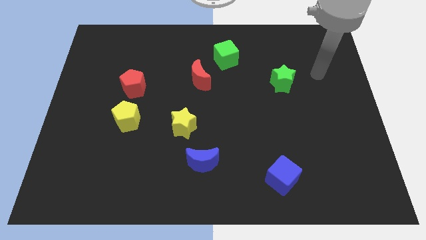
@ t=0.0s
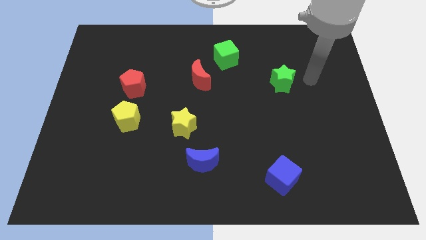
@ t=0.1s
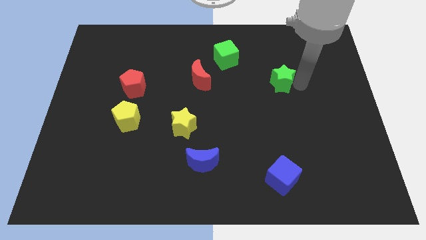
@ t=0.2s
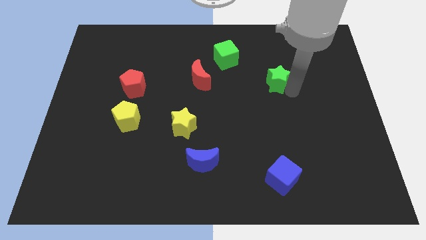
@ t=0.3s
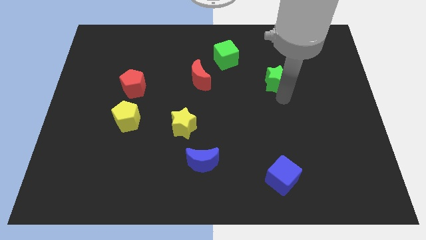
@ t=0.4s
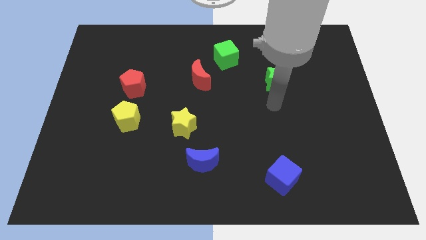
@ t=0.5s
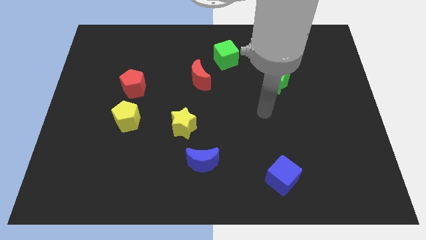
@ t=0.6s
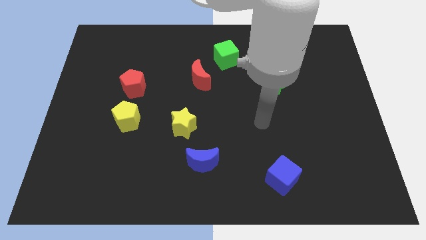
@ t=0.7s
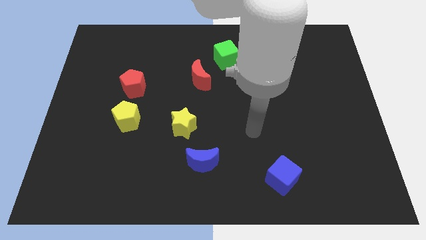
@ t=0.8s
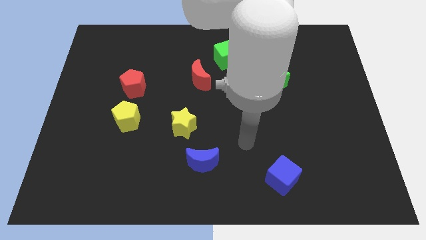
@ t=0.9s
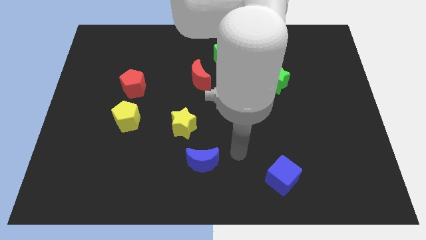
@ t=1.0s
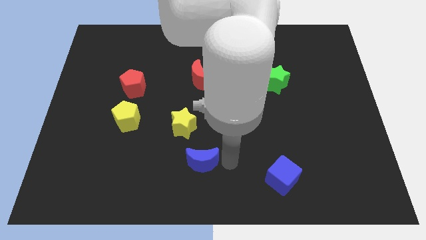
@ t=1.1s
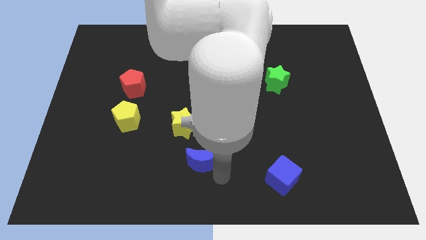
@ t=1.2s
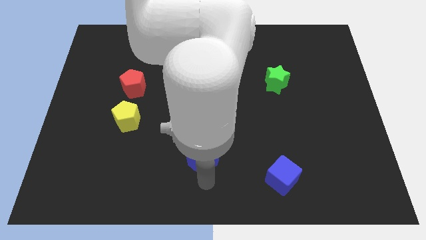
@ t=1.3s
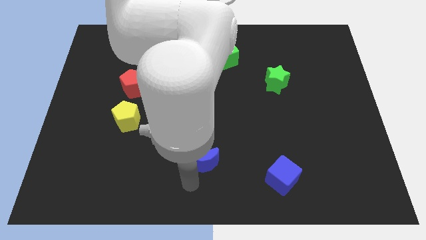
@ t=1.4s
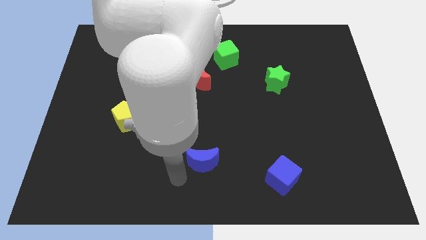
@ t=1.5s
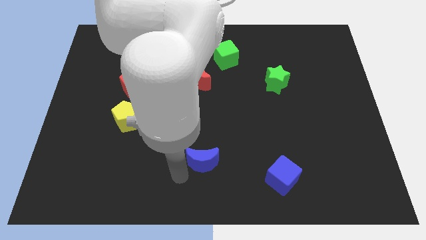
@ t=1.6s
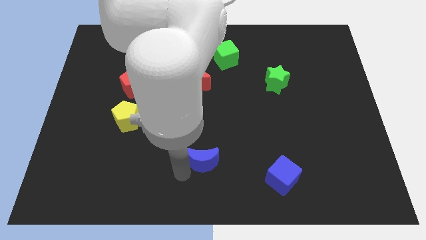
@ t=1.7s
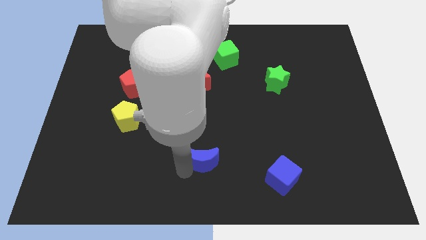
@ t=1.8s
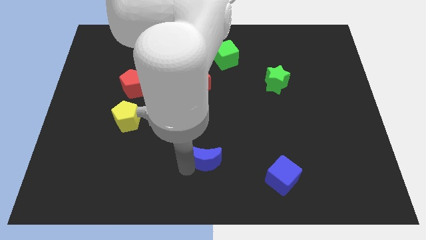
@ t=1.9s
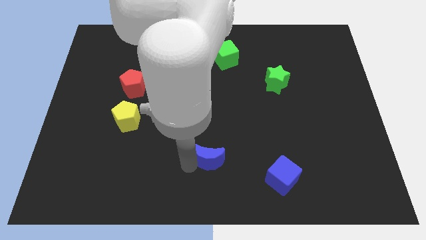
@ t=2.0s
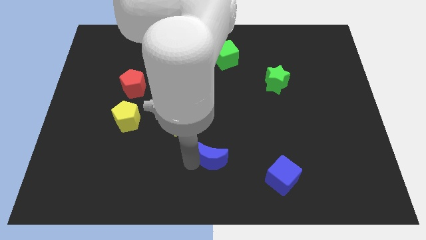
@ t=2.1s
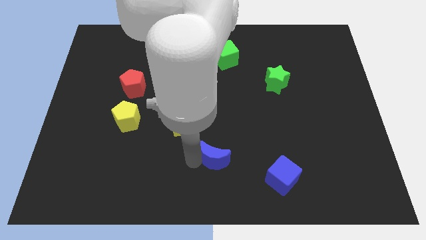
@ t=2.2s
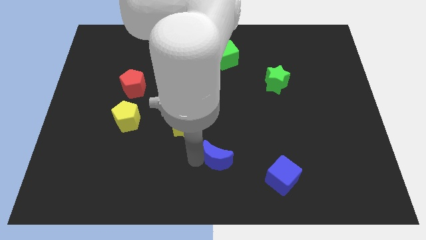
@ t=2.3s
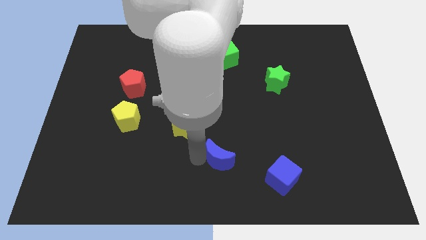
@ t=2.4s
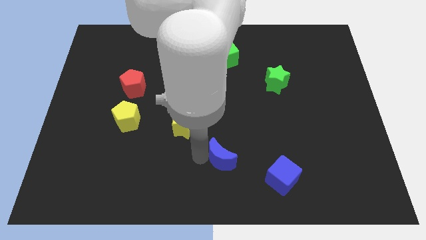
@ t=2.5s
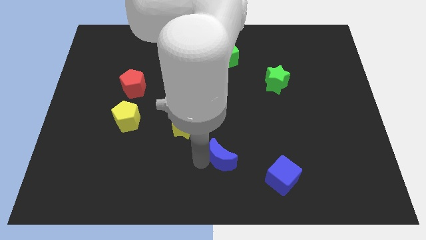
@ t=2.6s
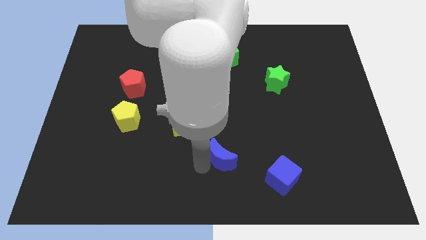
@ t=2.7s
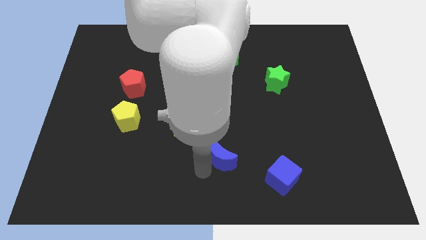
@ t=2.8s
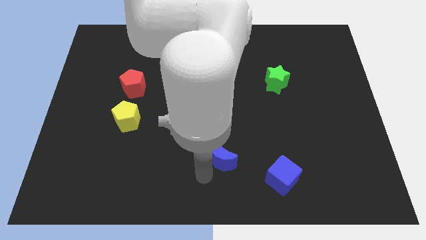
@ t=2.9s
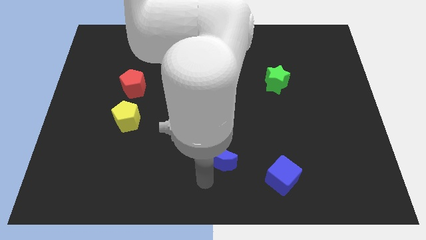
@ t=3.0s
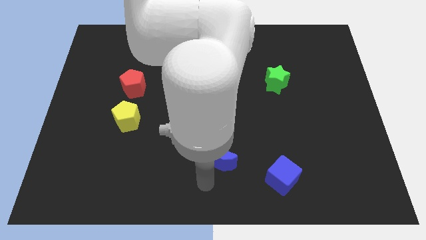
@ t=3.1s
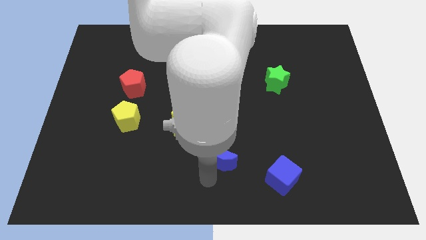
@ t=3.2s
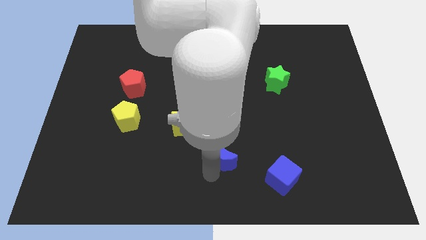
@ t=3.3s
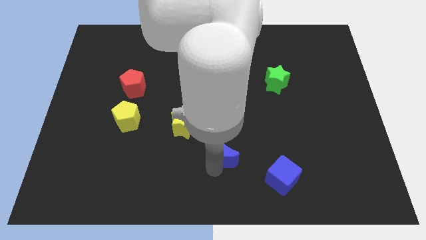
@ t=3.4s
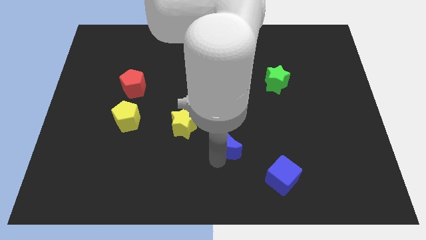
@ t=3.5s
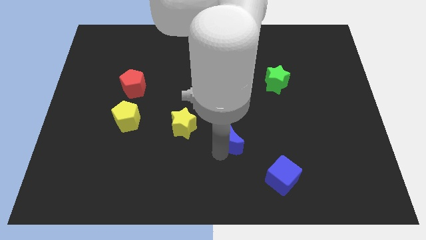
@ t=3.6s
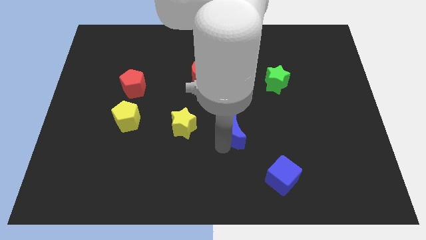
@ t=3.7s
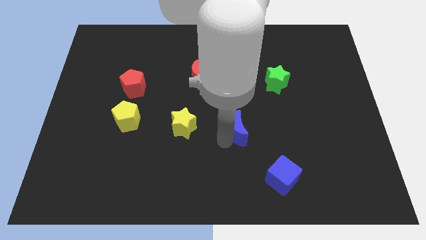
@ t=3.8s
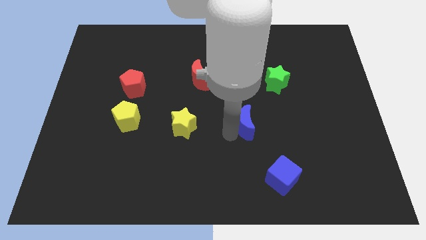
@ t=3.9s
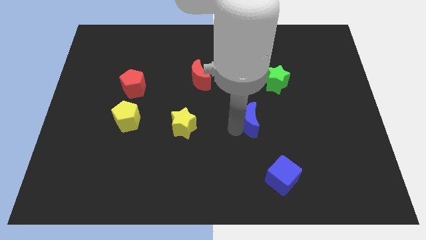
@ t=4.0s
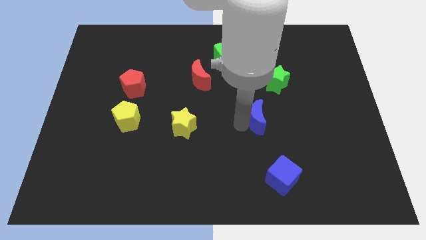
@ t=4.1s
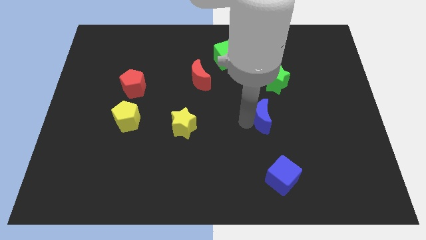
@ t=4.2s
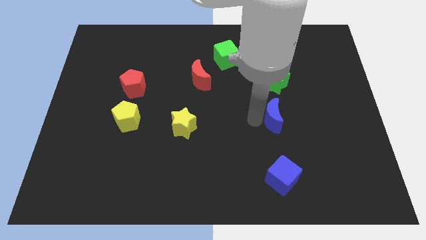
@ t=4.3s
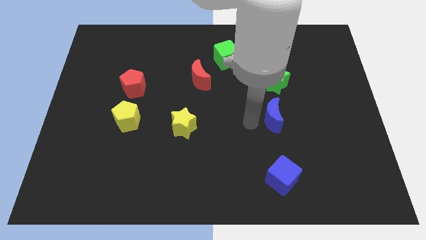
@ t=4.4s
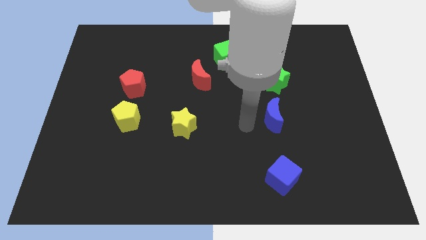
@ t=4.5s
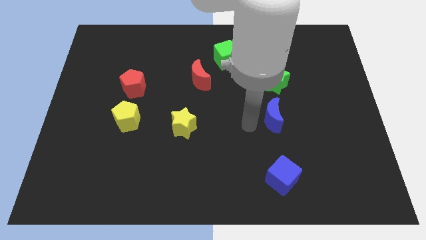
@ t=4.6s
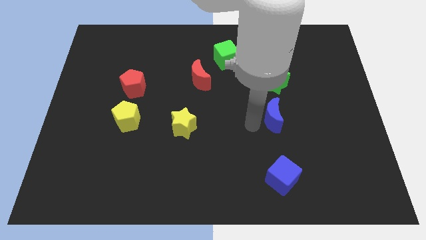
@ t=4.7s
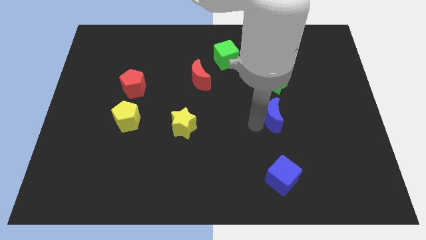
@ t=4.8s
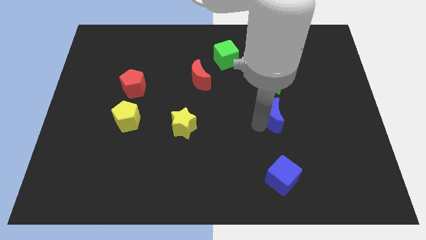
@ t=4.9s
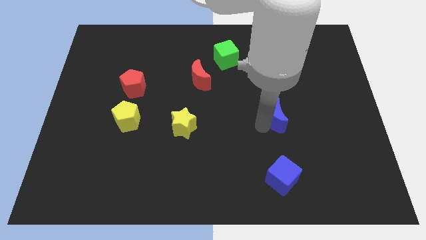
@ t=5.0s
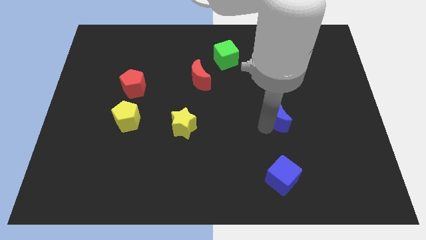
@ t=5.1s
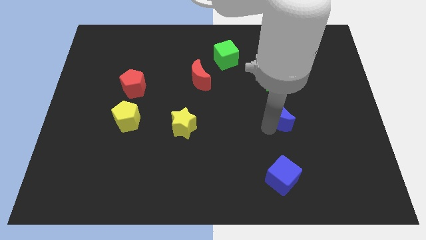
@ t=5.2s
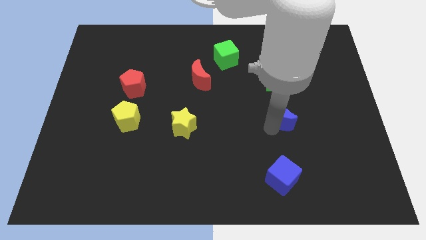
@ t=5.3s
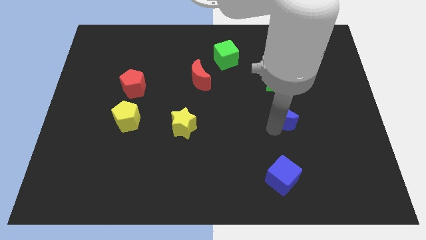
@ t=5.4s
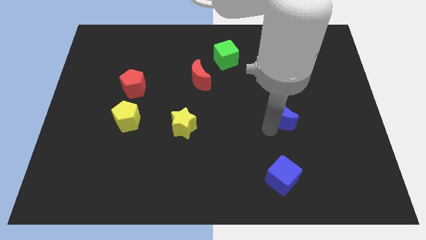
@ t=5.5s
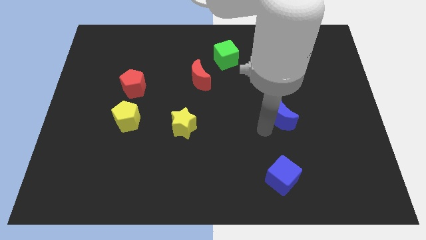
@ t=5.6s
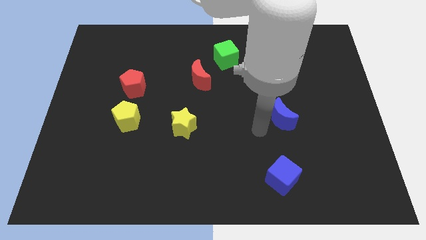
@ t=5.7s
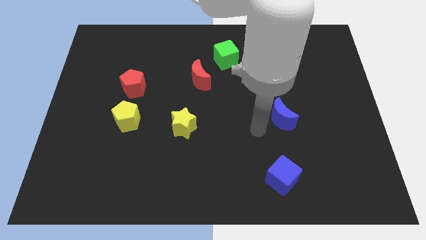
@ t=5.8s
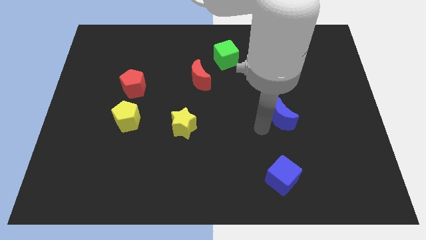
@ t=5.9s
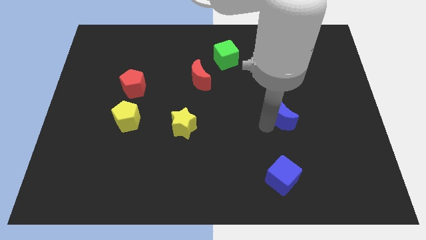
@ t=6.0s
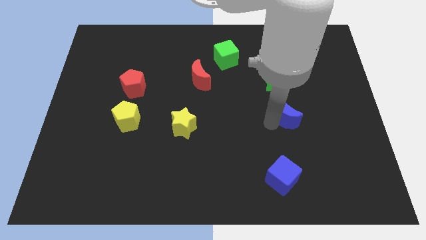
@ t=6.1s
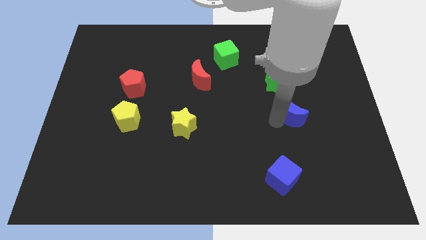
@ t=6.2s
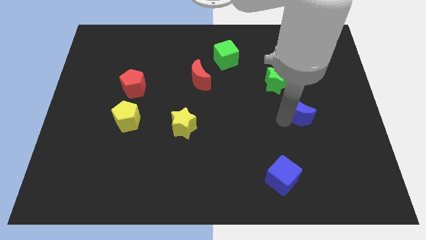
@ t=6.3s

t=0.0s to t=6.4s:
push the blue moon to the bottom right side of the green star
